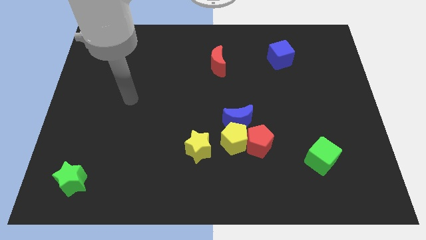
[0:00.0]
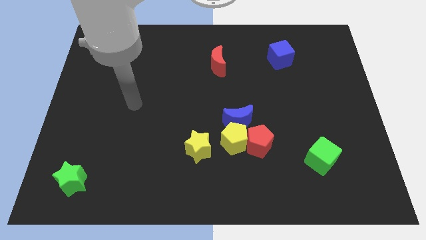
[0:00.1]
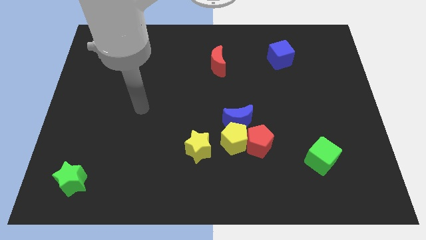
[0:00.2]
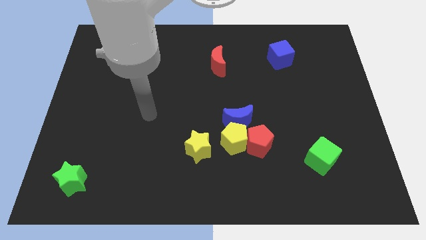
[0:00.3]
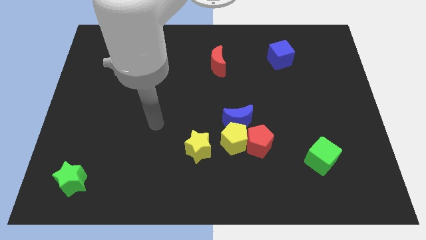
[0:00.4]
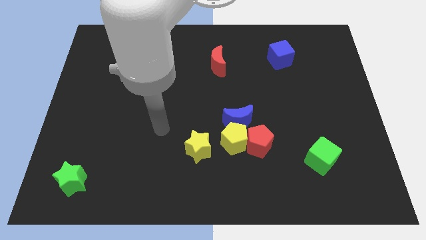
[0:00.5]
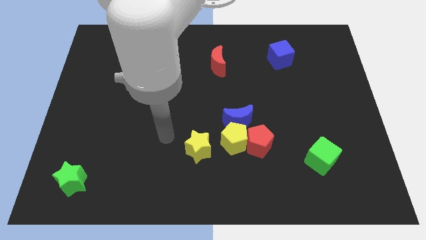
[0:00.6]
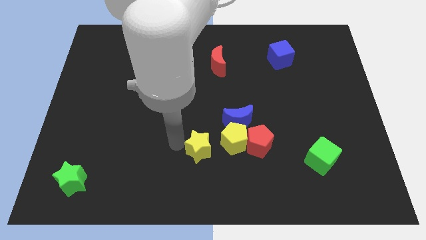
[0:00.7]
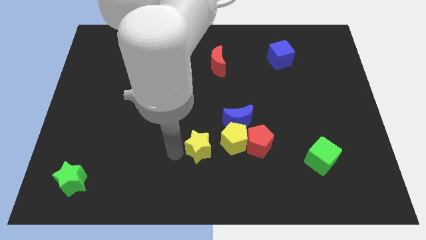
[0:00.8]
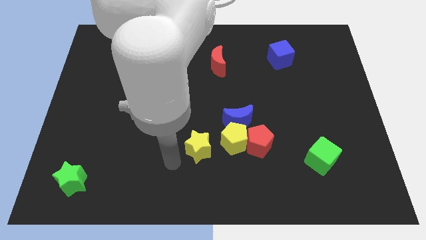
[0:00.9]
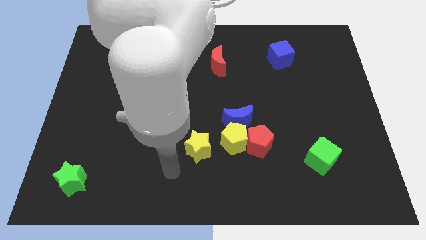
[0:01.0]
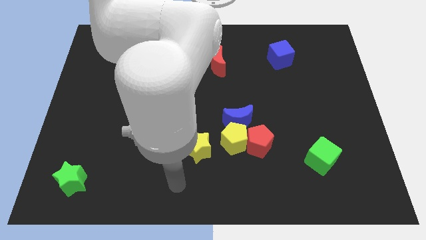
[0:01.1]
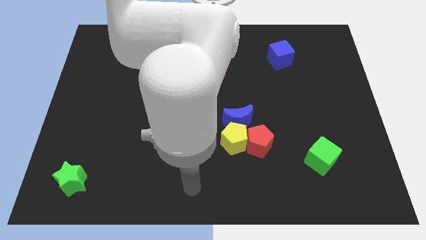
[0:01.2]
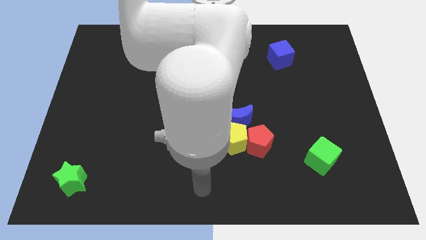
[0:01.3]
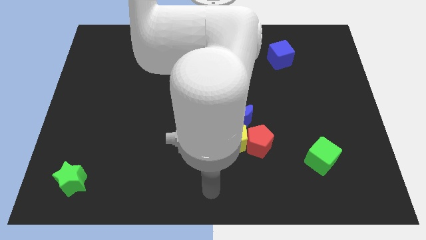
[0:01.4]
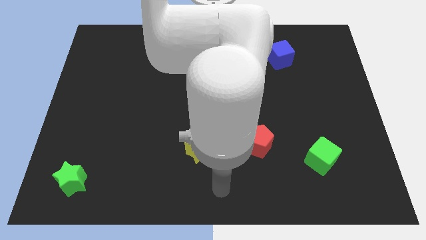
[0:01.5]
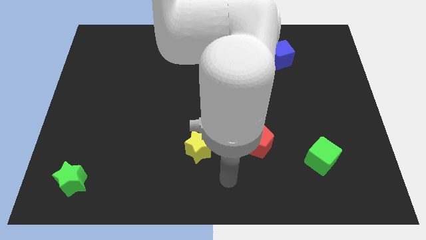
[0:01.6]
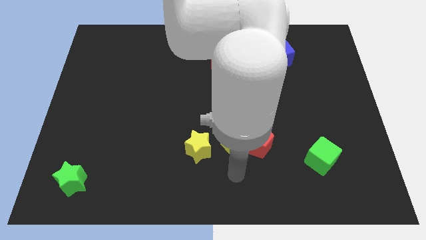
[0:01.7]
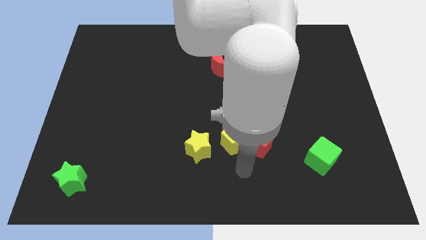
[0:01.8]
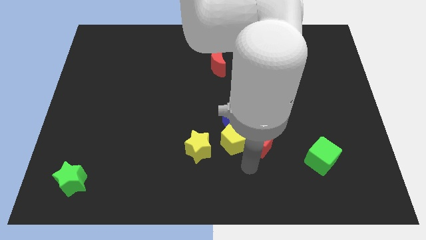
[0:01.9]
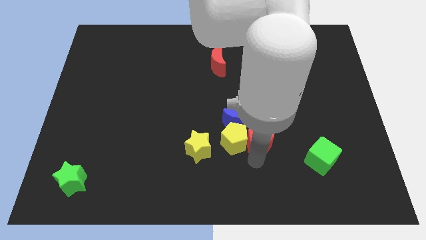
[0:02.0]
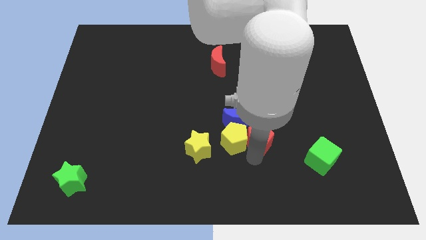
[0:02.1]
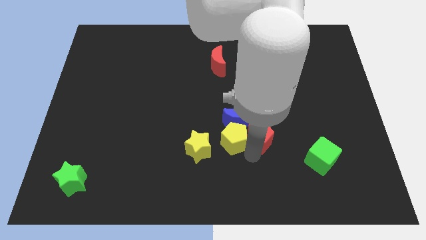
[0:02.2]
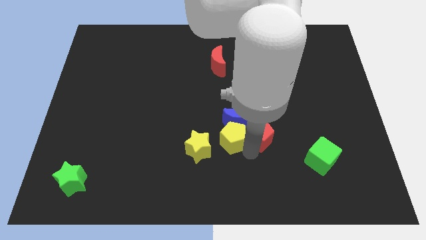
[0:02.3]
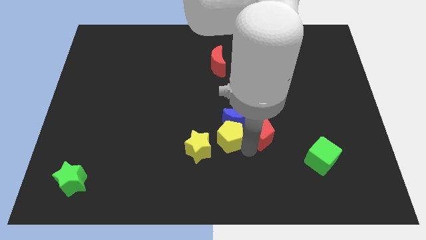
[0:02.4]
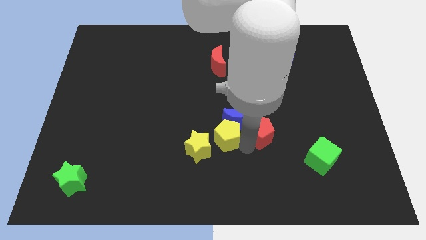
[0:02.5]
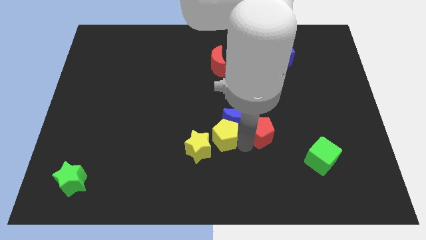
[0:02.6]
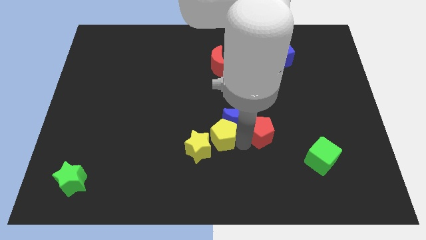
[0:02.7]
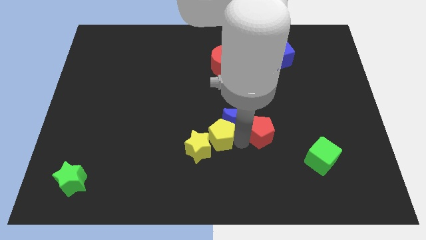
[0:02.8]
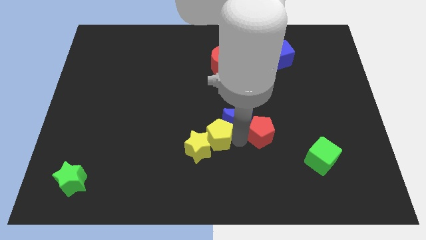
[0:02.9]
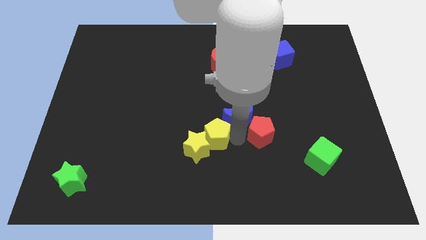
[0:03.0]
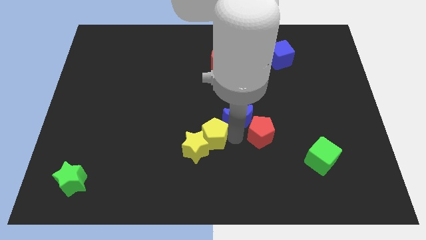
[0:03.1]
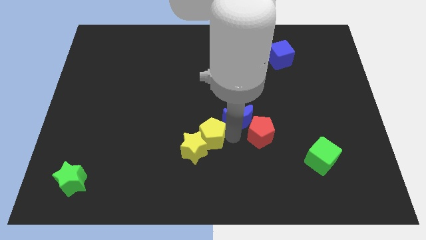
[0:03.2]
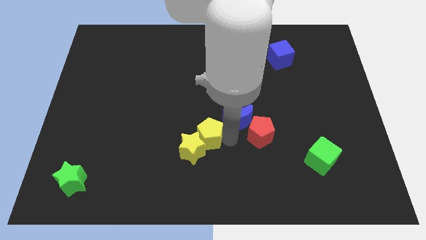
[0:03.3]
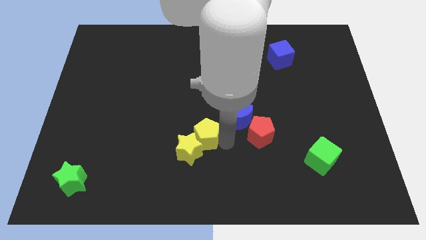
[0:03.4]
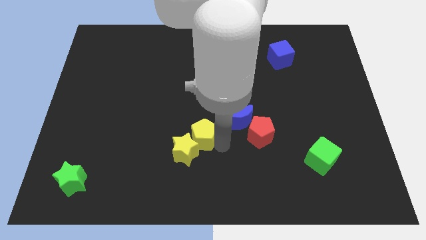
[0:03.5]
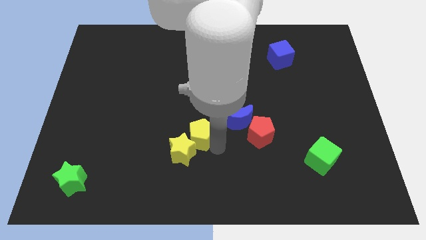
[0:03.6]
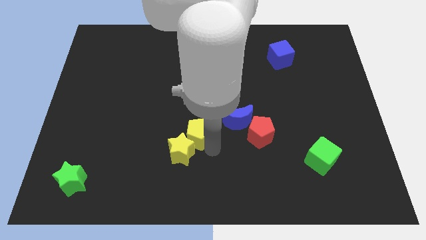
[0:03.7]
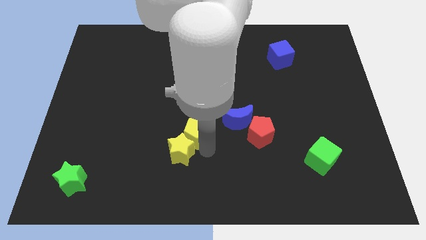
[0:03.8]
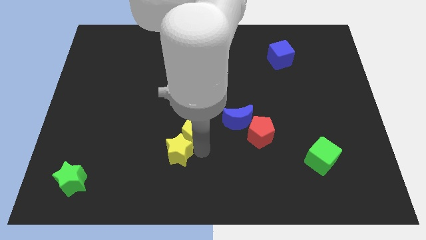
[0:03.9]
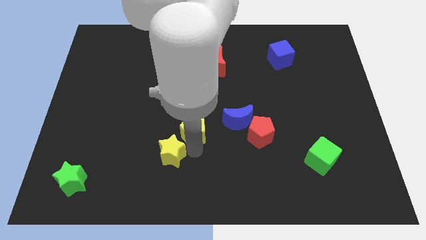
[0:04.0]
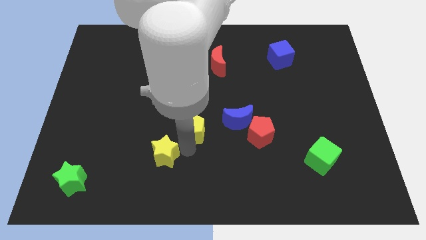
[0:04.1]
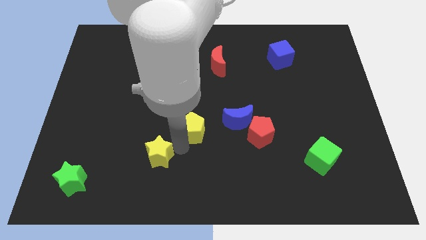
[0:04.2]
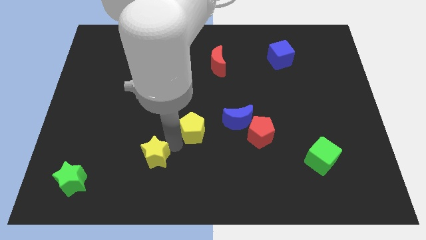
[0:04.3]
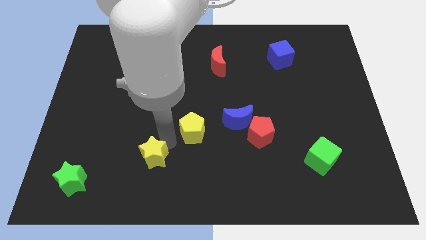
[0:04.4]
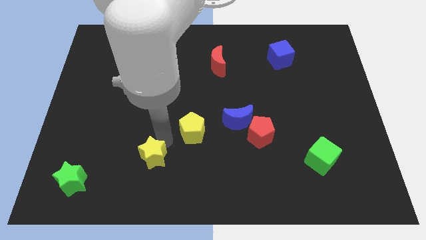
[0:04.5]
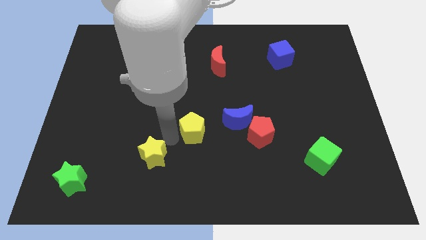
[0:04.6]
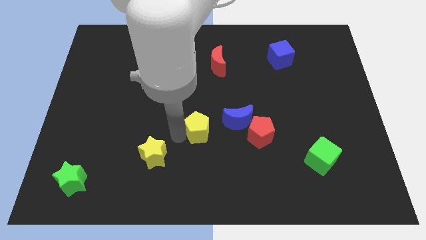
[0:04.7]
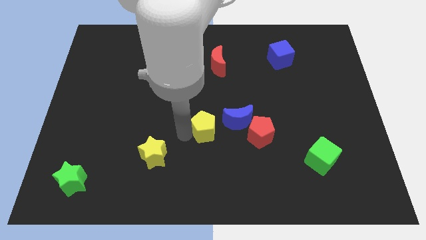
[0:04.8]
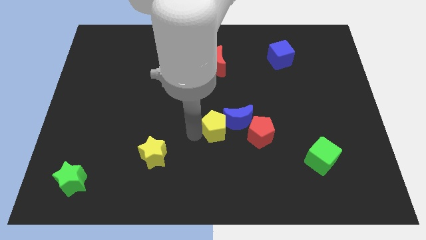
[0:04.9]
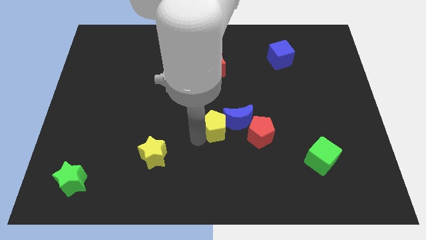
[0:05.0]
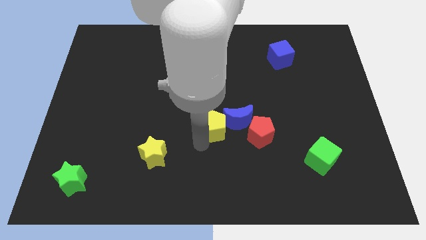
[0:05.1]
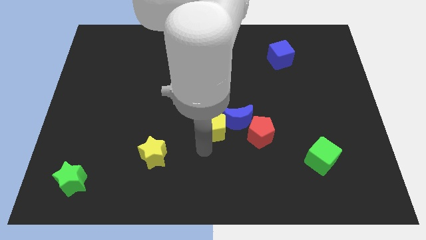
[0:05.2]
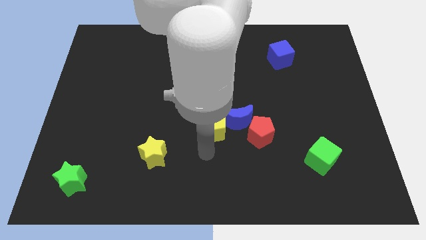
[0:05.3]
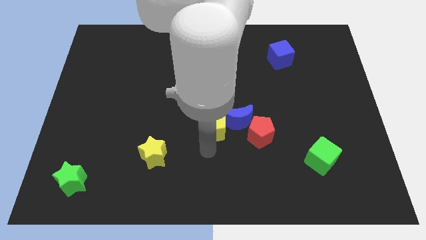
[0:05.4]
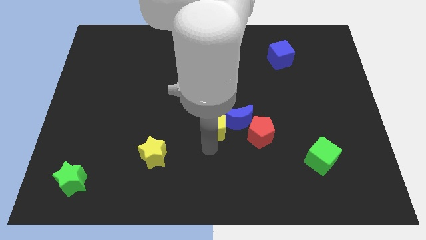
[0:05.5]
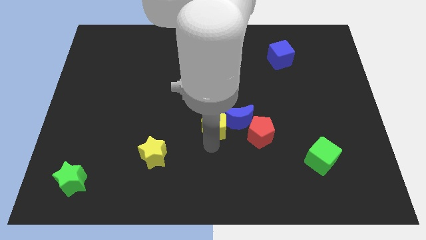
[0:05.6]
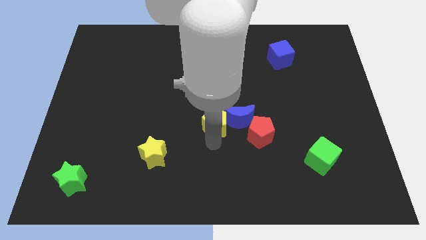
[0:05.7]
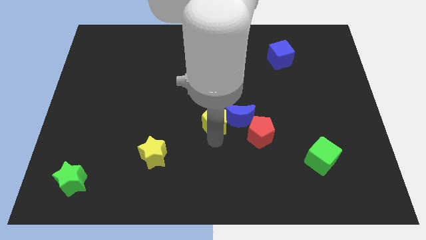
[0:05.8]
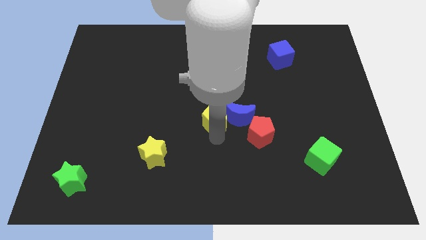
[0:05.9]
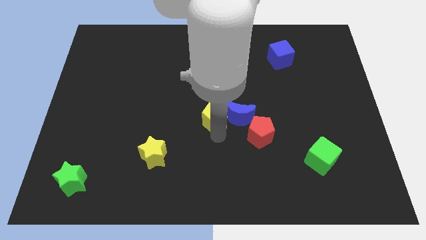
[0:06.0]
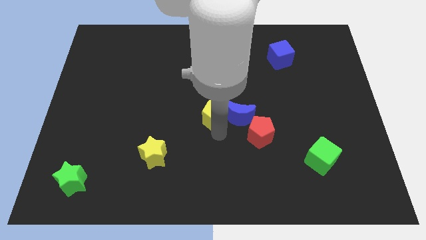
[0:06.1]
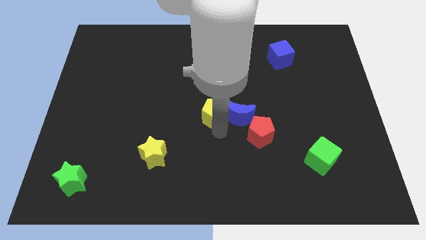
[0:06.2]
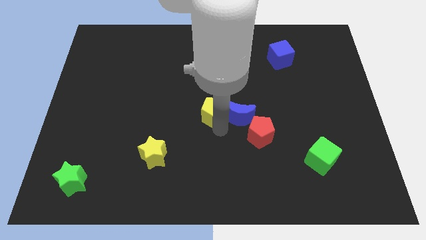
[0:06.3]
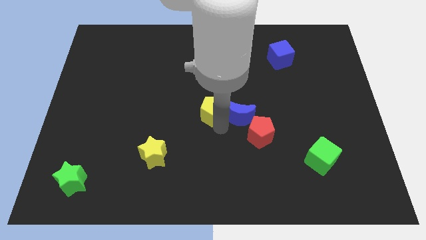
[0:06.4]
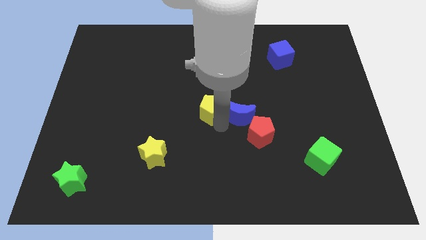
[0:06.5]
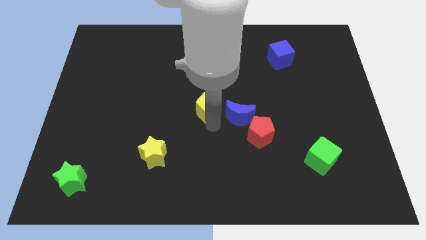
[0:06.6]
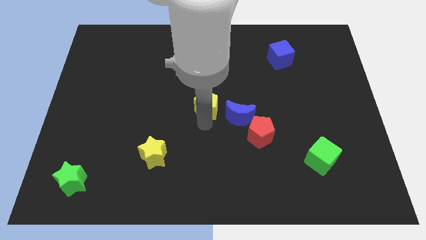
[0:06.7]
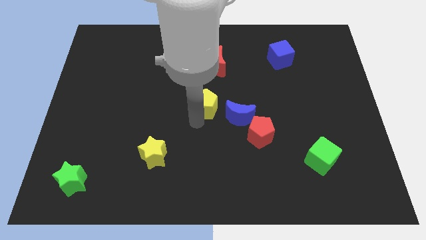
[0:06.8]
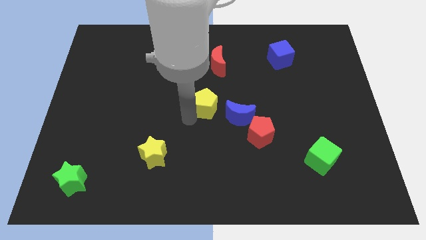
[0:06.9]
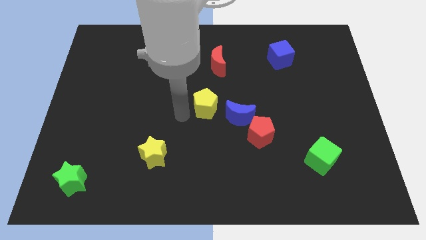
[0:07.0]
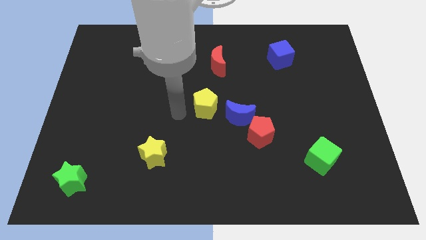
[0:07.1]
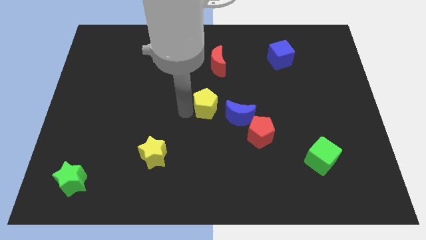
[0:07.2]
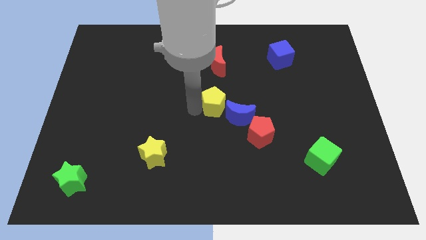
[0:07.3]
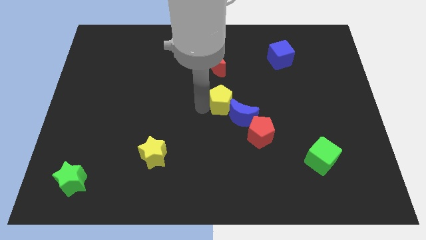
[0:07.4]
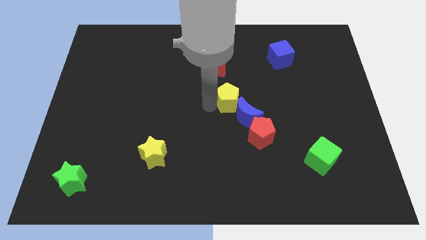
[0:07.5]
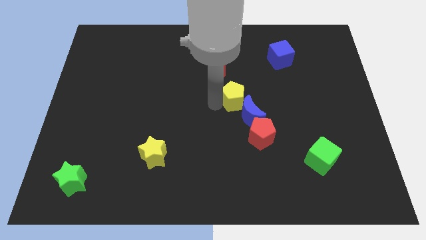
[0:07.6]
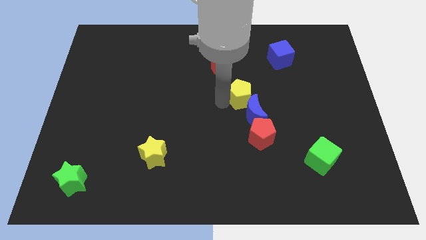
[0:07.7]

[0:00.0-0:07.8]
move the yellow pentagon upwards and then right slightly
